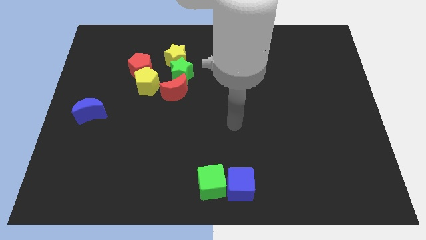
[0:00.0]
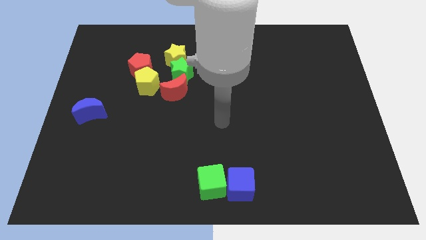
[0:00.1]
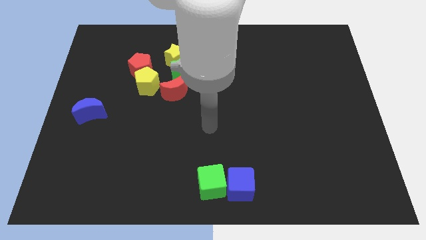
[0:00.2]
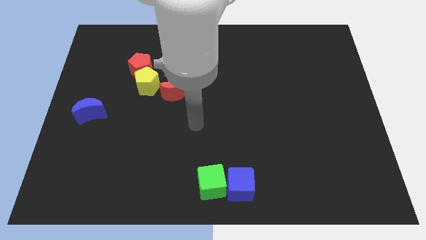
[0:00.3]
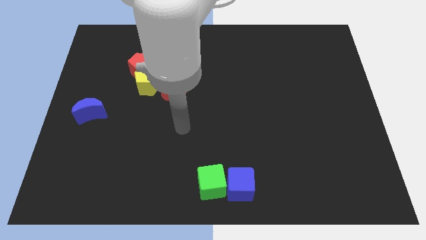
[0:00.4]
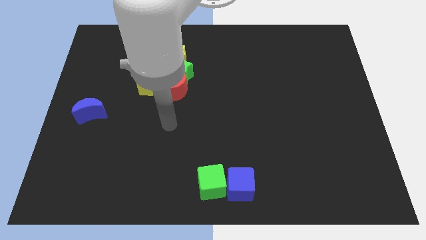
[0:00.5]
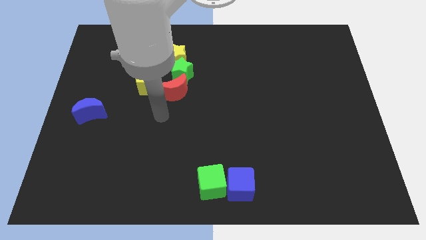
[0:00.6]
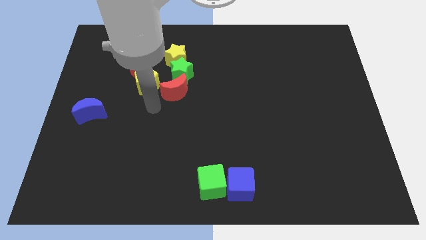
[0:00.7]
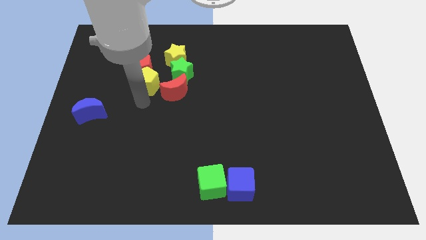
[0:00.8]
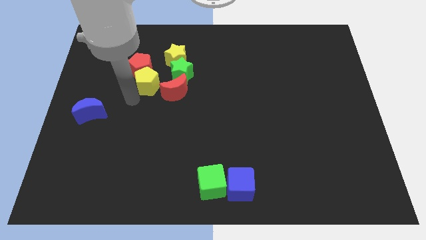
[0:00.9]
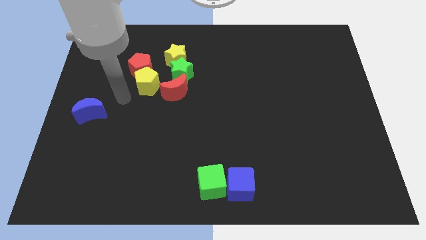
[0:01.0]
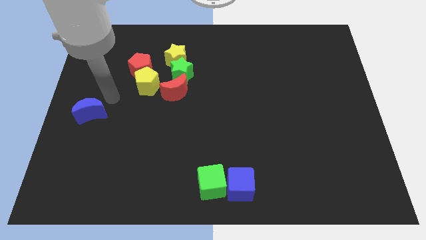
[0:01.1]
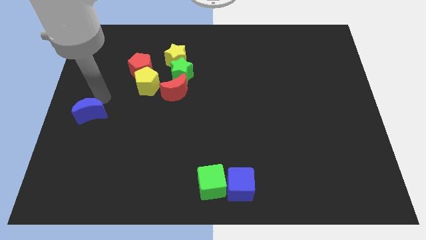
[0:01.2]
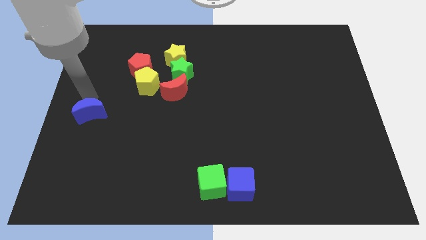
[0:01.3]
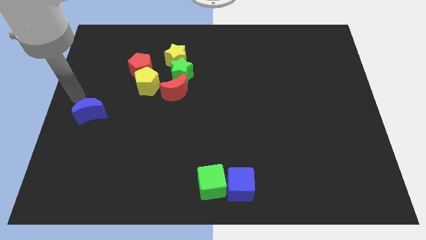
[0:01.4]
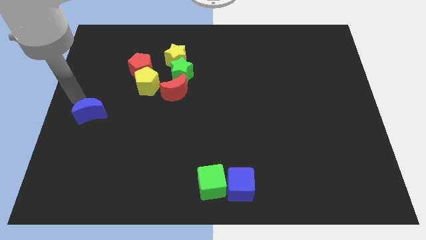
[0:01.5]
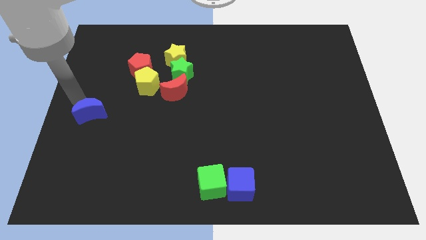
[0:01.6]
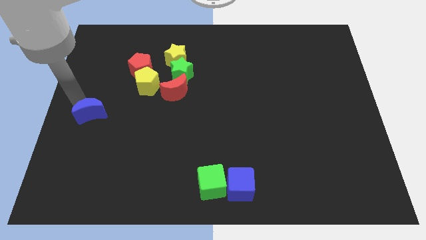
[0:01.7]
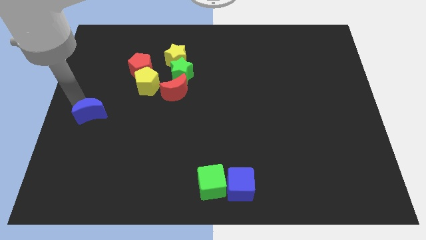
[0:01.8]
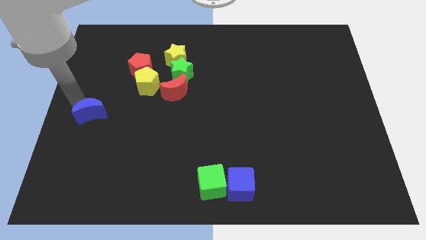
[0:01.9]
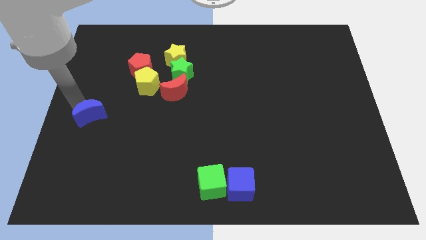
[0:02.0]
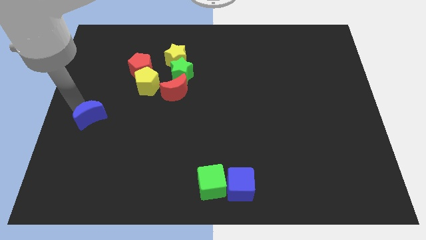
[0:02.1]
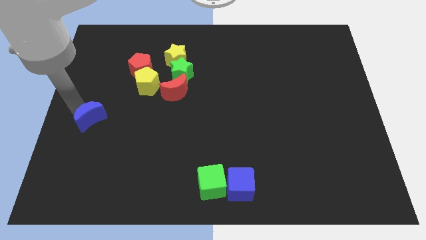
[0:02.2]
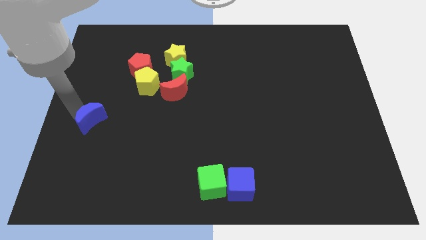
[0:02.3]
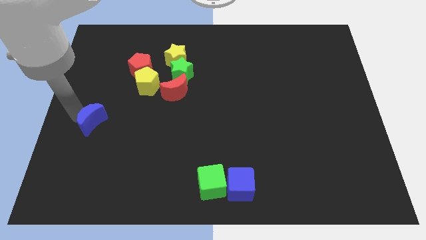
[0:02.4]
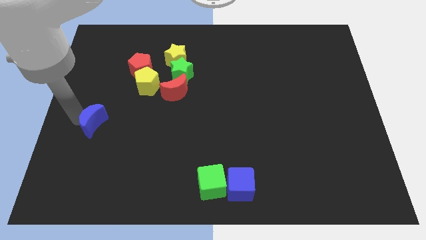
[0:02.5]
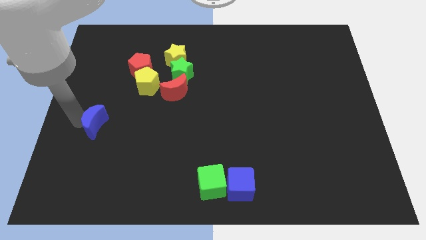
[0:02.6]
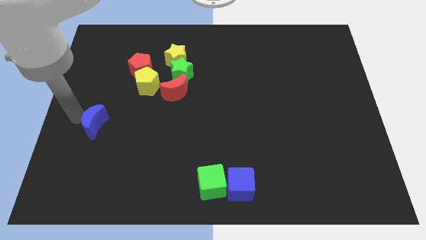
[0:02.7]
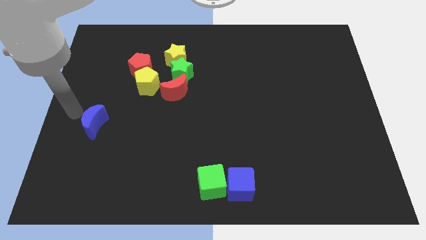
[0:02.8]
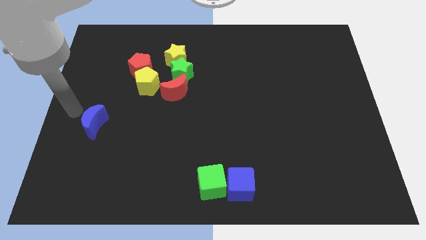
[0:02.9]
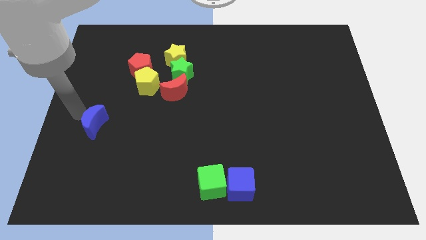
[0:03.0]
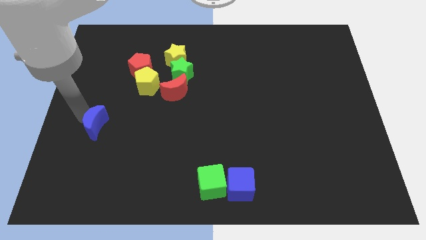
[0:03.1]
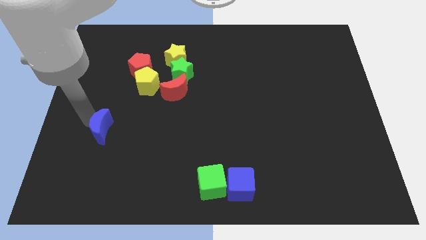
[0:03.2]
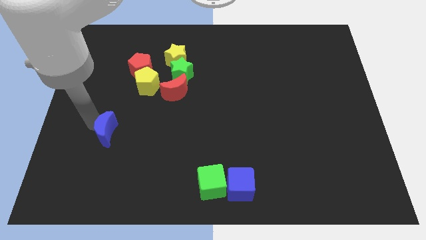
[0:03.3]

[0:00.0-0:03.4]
move the blue moon slightly down and then right

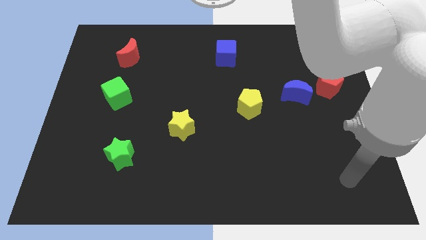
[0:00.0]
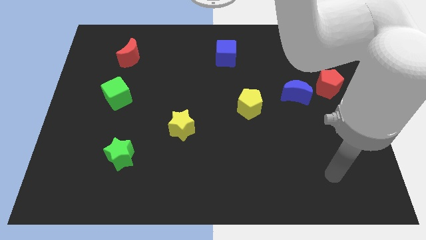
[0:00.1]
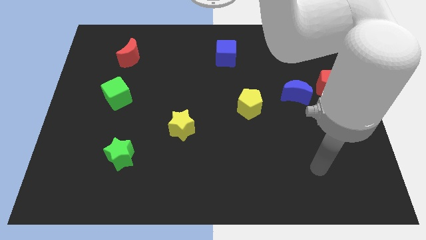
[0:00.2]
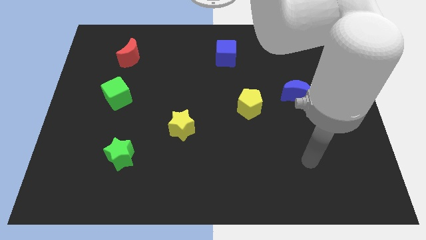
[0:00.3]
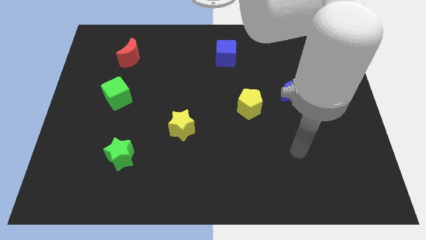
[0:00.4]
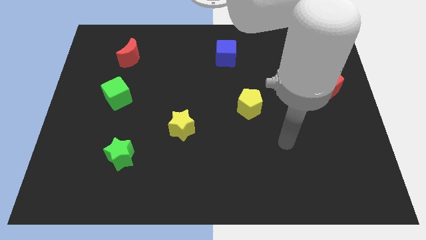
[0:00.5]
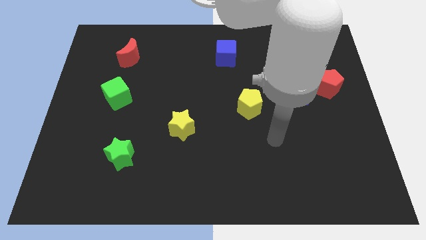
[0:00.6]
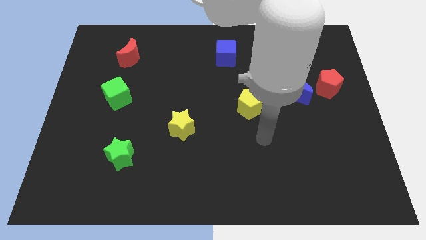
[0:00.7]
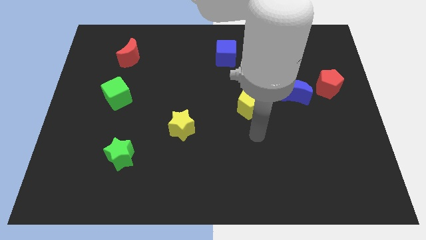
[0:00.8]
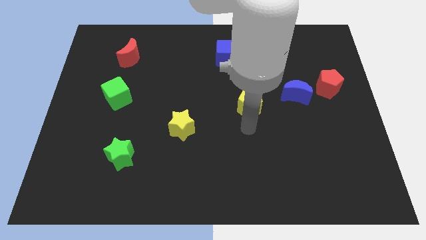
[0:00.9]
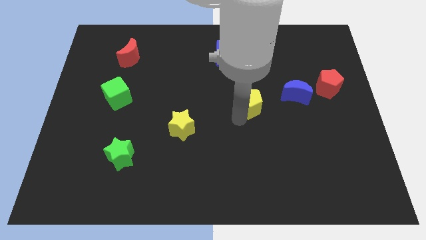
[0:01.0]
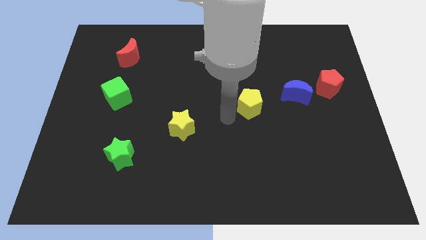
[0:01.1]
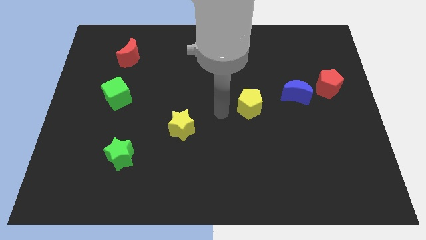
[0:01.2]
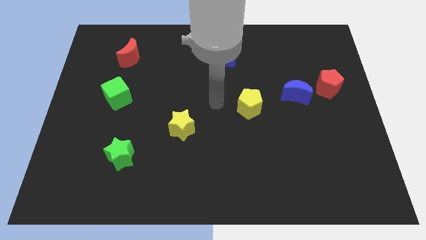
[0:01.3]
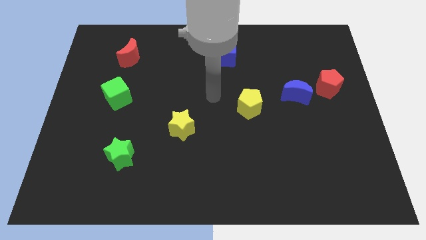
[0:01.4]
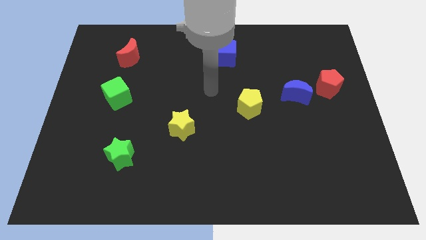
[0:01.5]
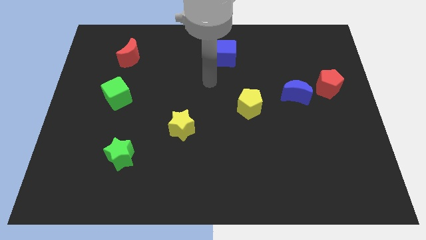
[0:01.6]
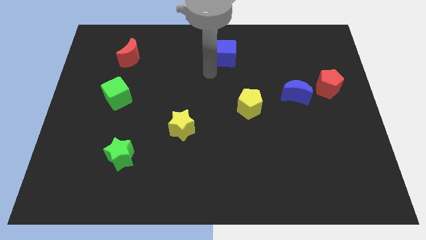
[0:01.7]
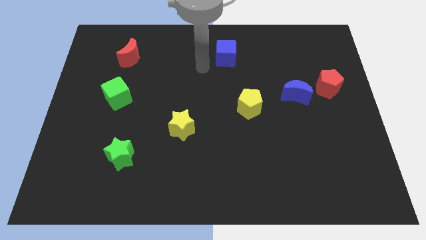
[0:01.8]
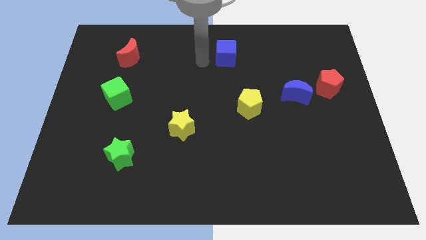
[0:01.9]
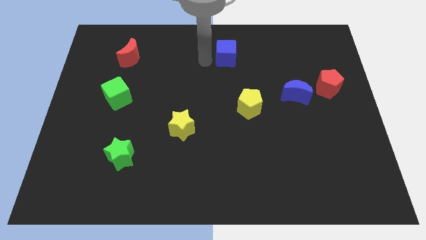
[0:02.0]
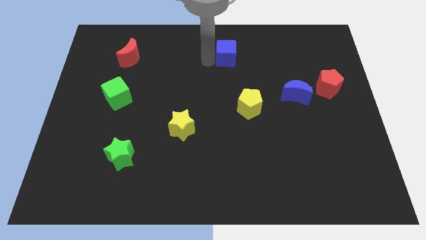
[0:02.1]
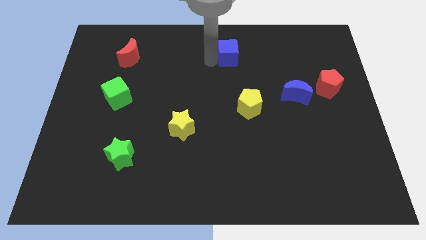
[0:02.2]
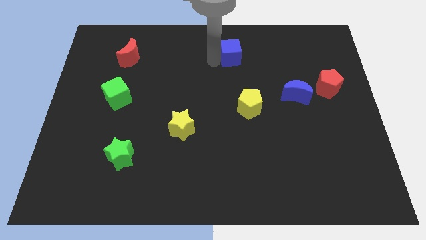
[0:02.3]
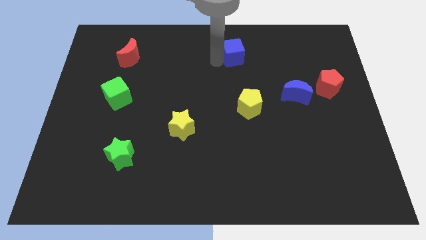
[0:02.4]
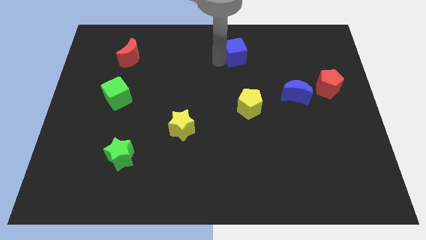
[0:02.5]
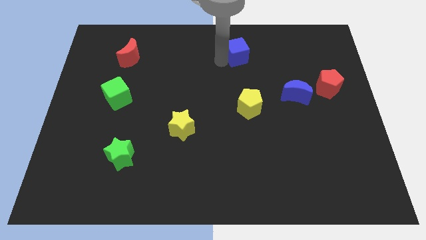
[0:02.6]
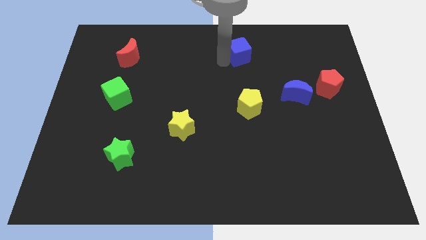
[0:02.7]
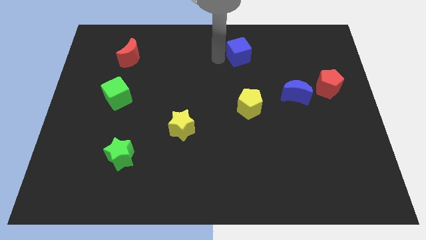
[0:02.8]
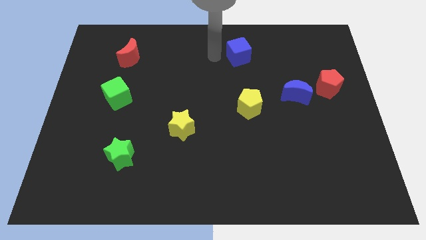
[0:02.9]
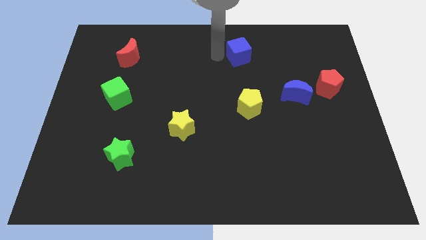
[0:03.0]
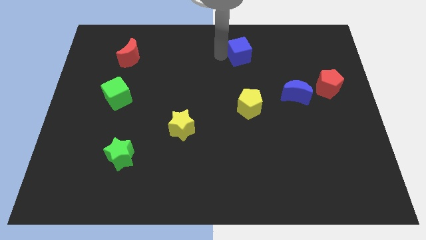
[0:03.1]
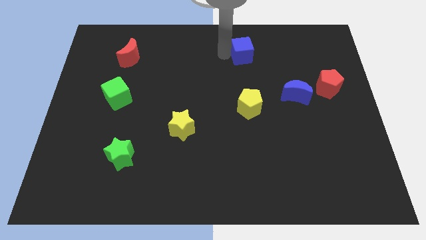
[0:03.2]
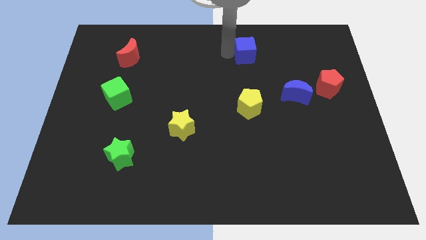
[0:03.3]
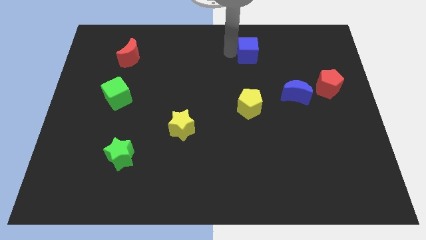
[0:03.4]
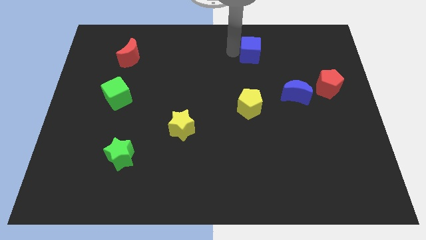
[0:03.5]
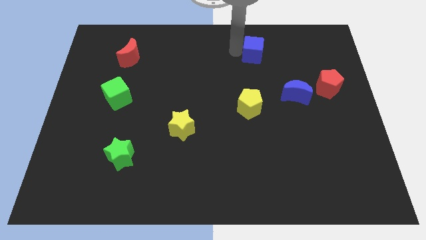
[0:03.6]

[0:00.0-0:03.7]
move the blue cube slightly to the right

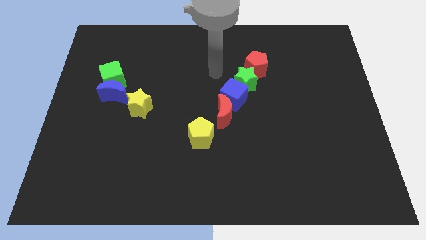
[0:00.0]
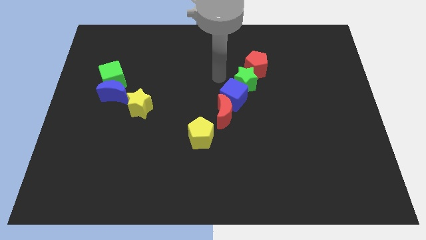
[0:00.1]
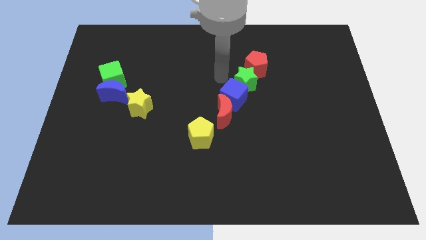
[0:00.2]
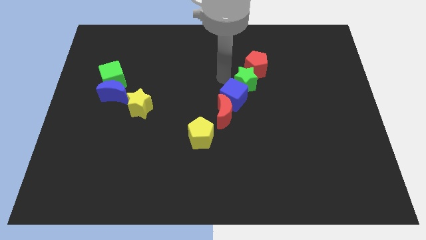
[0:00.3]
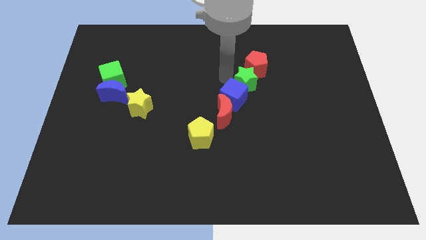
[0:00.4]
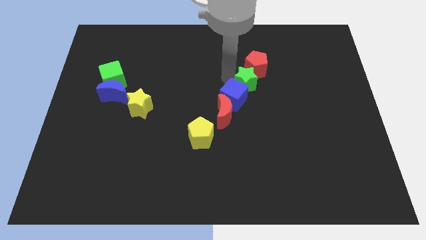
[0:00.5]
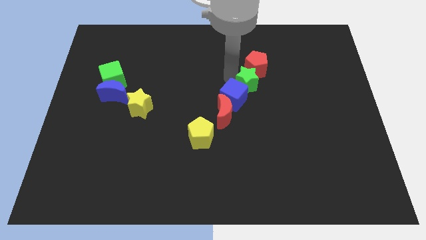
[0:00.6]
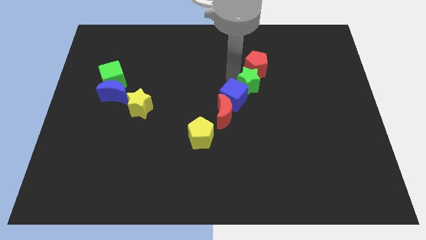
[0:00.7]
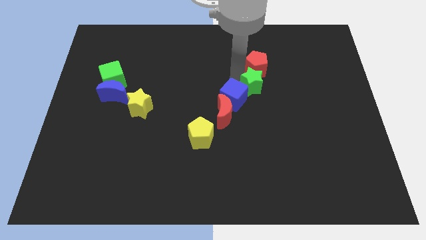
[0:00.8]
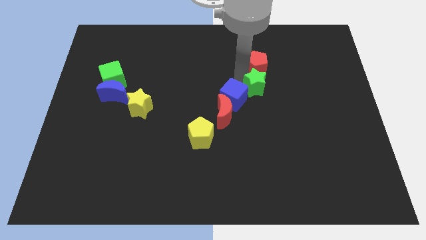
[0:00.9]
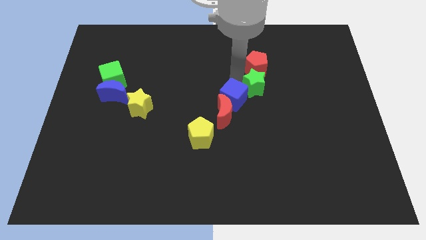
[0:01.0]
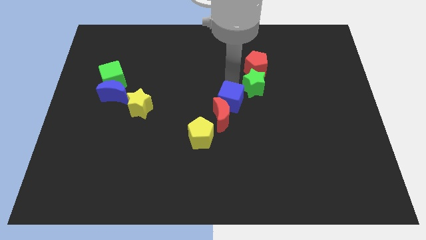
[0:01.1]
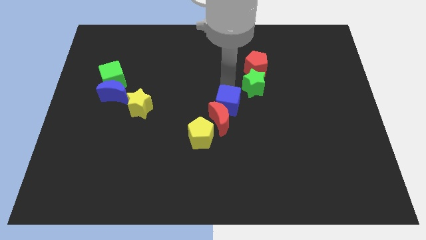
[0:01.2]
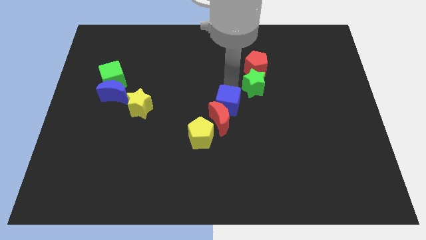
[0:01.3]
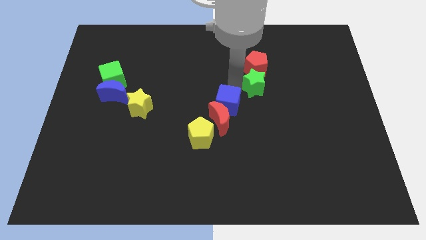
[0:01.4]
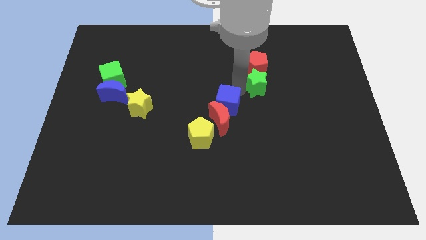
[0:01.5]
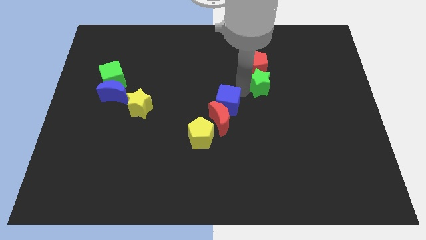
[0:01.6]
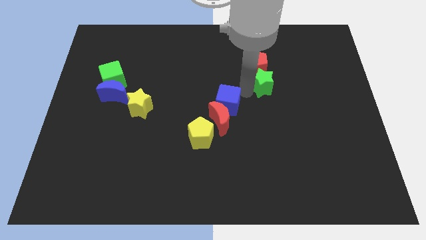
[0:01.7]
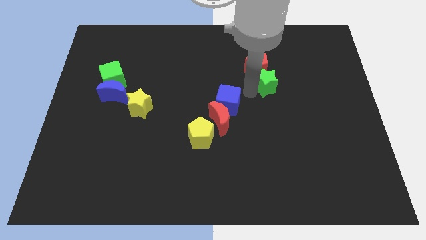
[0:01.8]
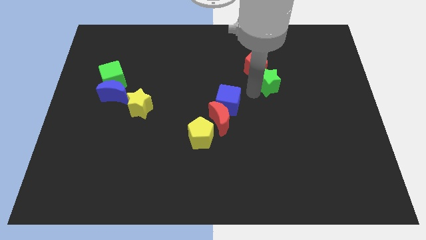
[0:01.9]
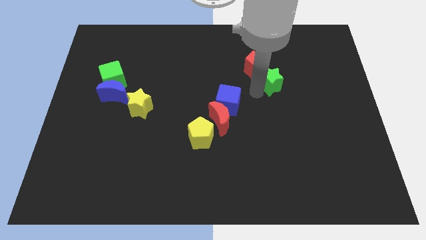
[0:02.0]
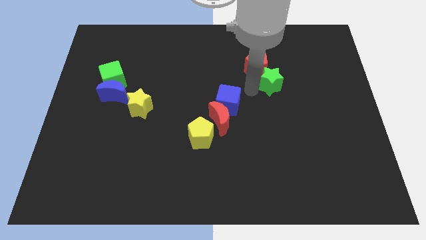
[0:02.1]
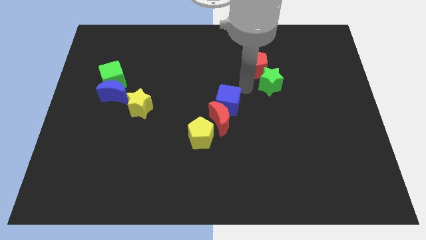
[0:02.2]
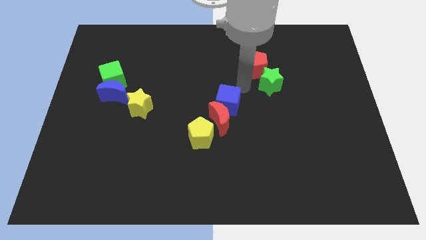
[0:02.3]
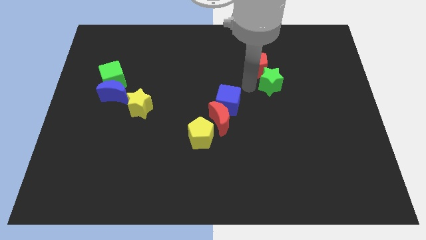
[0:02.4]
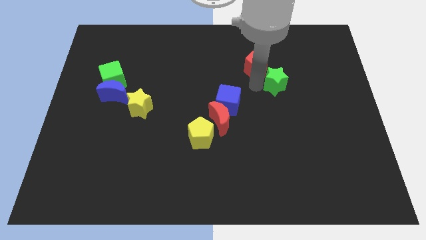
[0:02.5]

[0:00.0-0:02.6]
slide the green star a little to the right
